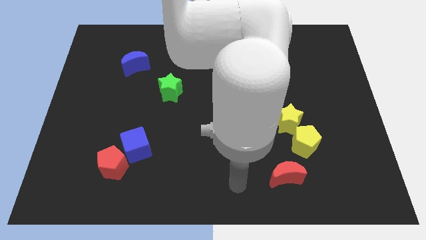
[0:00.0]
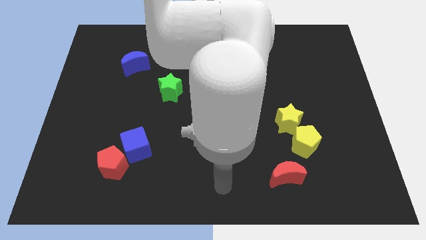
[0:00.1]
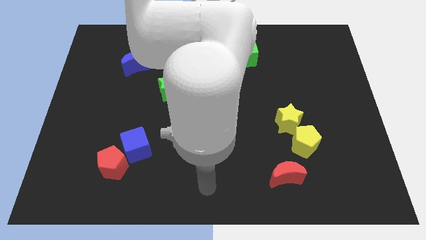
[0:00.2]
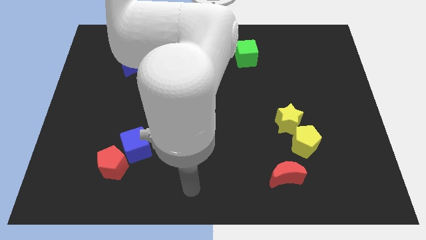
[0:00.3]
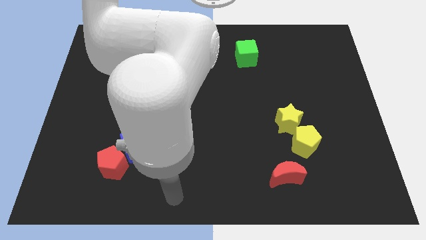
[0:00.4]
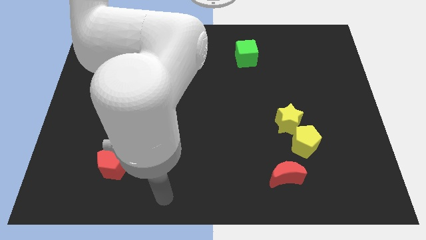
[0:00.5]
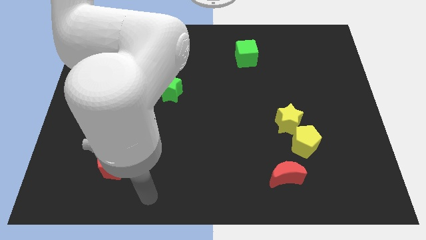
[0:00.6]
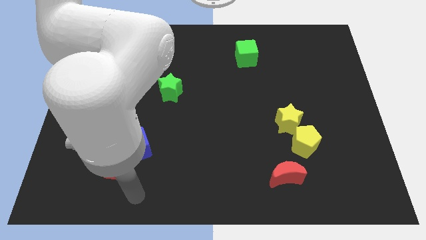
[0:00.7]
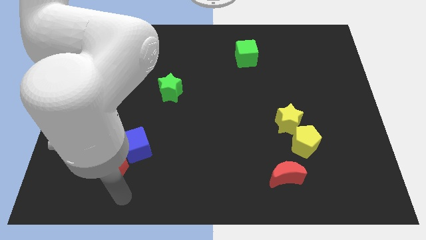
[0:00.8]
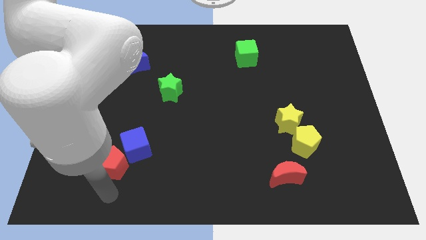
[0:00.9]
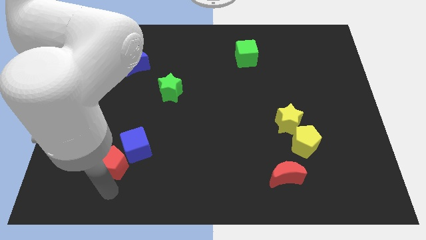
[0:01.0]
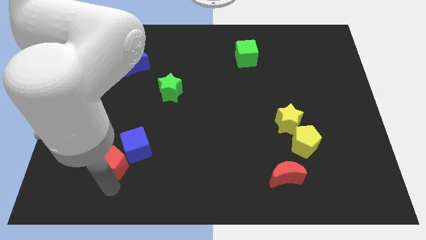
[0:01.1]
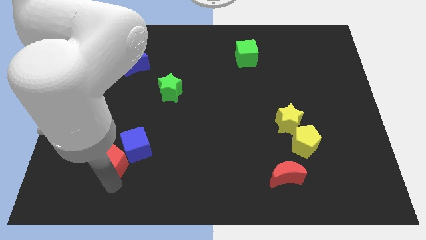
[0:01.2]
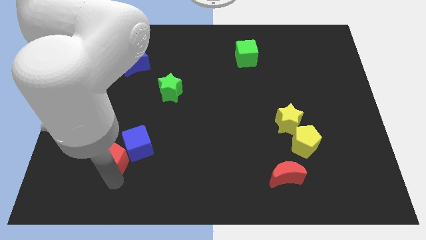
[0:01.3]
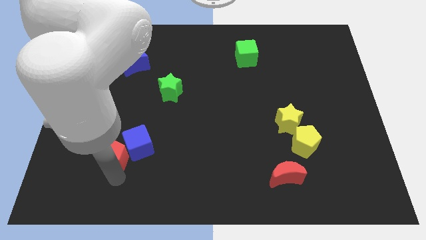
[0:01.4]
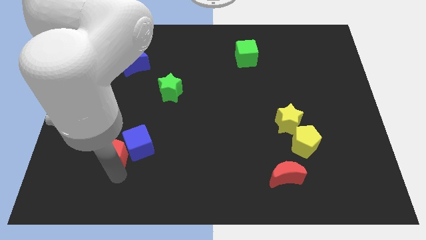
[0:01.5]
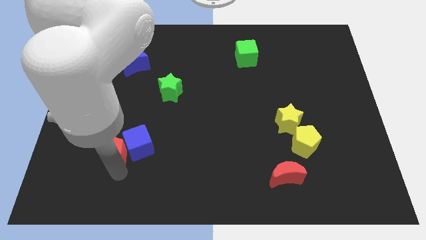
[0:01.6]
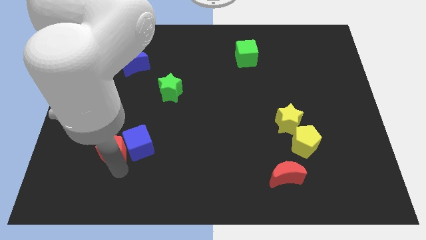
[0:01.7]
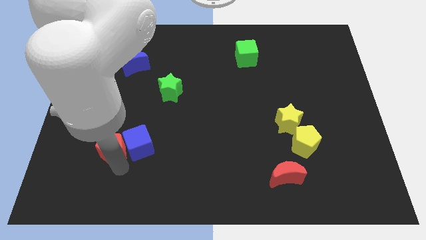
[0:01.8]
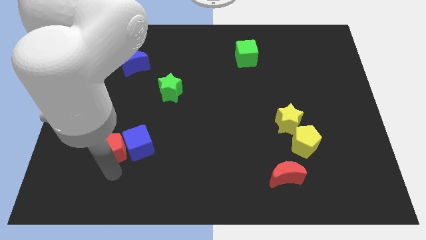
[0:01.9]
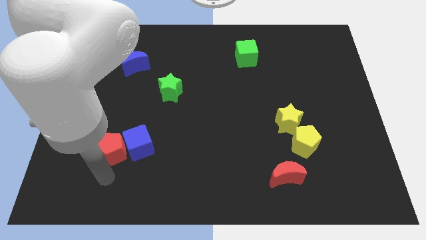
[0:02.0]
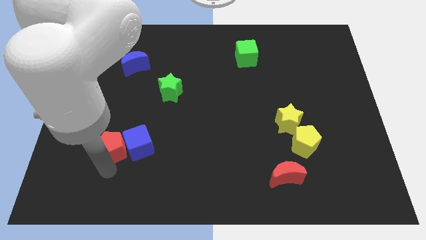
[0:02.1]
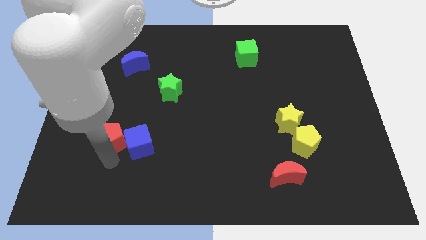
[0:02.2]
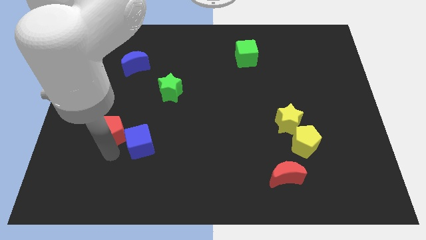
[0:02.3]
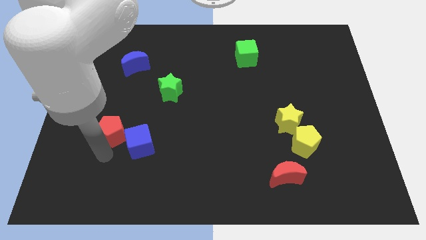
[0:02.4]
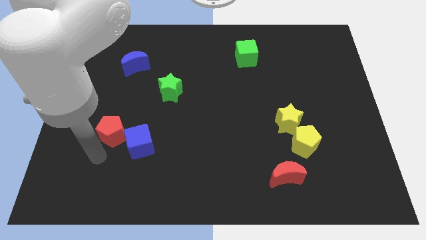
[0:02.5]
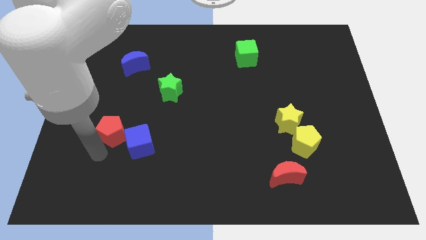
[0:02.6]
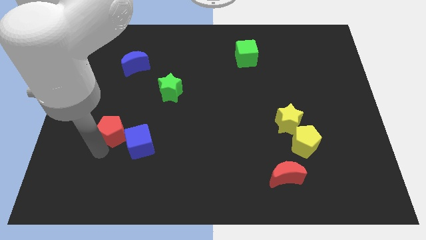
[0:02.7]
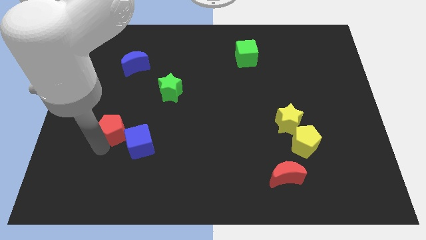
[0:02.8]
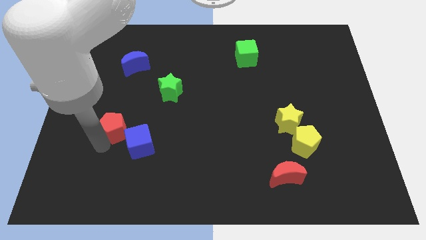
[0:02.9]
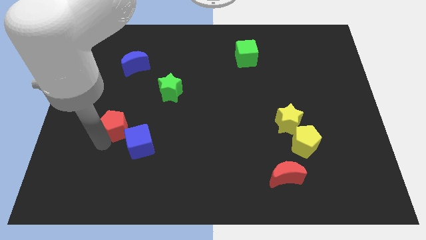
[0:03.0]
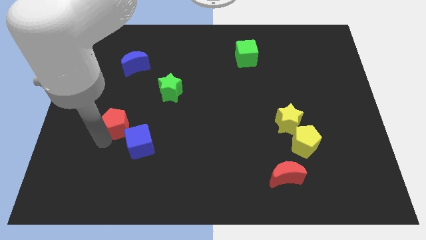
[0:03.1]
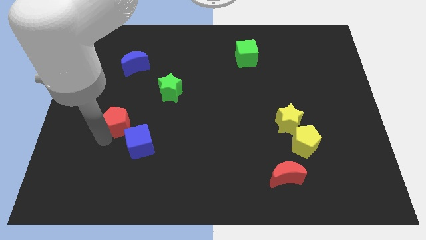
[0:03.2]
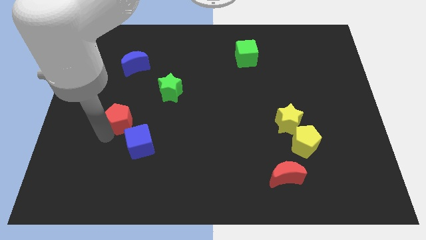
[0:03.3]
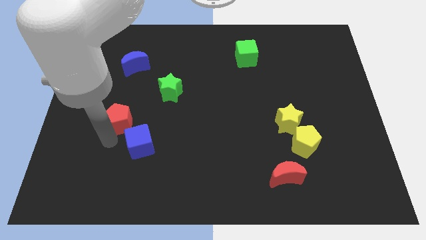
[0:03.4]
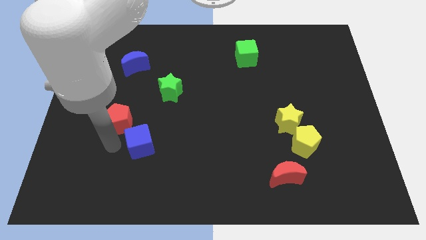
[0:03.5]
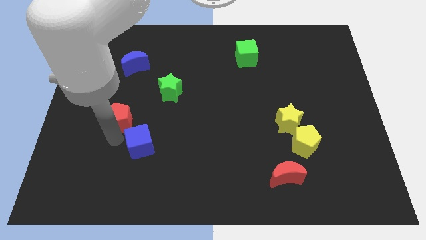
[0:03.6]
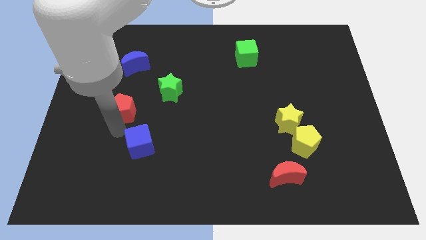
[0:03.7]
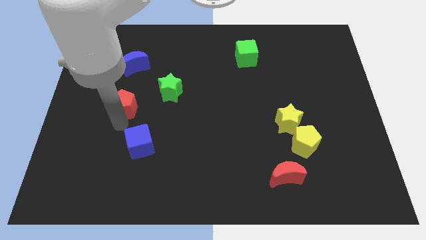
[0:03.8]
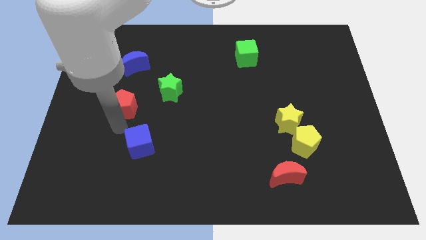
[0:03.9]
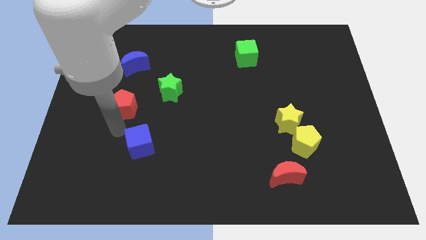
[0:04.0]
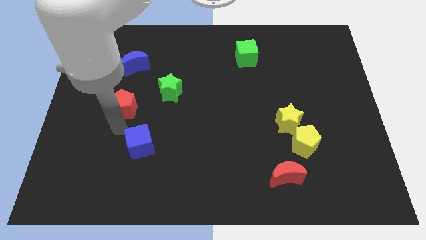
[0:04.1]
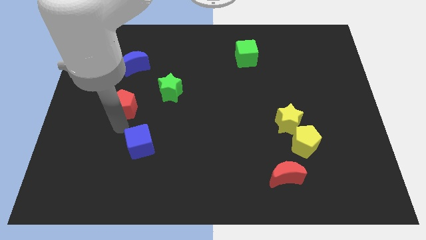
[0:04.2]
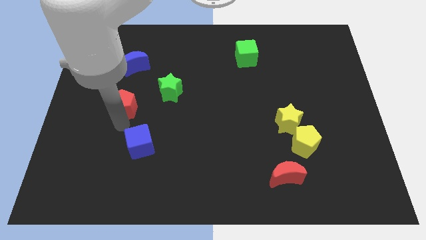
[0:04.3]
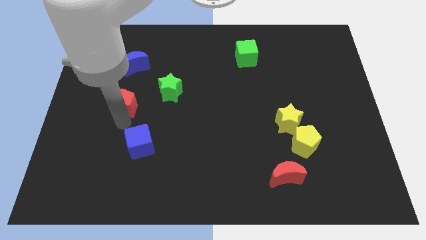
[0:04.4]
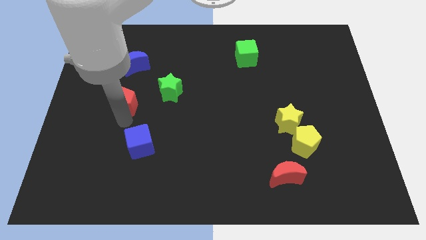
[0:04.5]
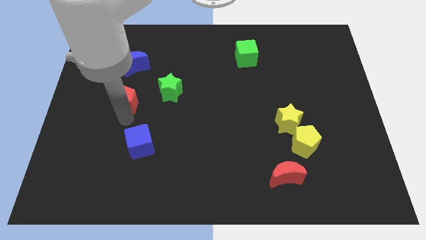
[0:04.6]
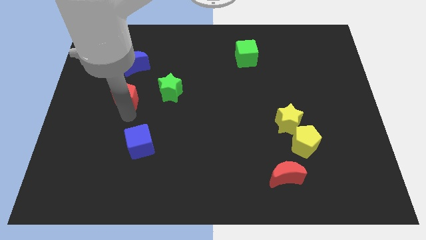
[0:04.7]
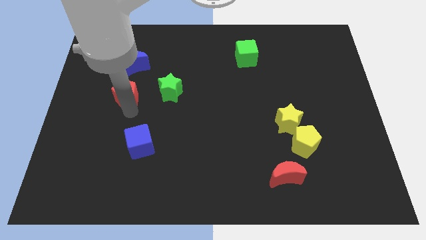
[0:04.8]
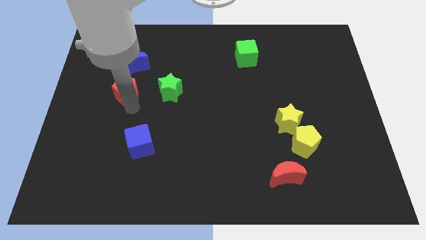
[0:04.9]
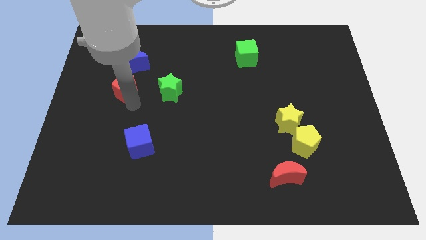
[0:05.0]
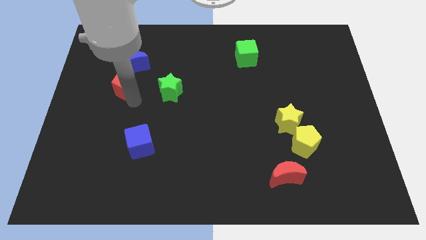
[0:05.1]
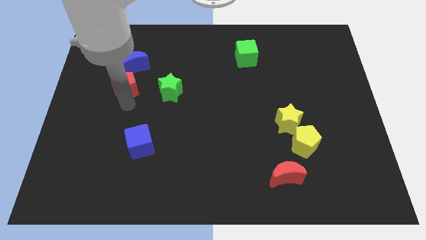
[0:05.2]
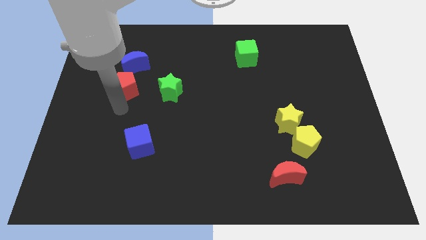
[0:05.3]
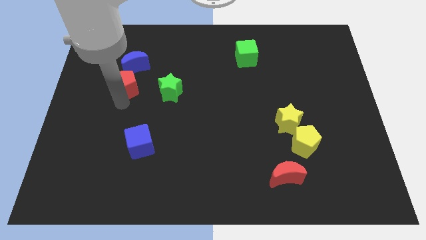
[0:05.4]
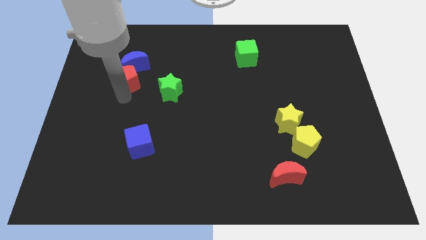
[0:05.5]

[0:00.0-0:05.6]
move the red pentagon next to the blue moon
